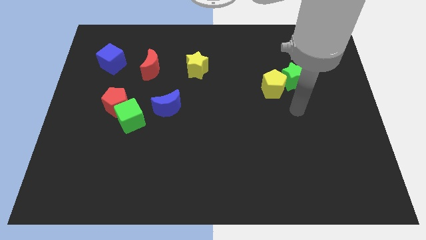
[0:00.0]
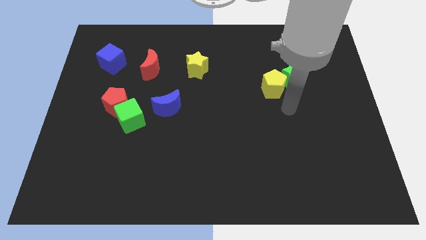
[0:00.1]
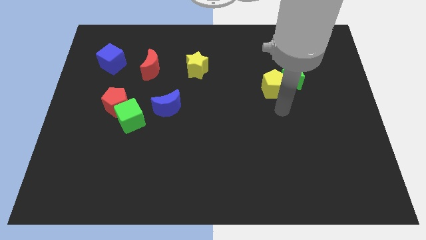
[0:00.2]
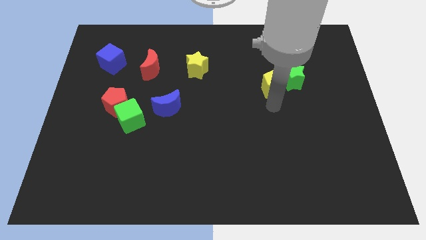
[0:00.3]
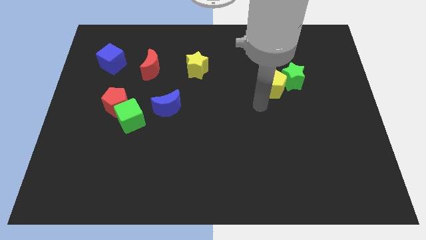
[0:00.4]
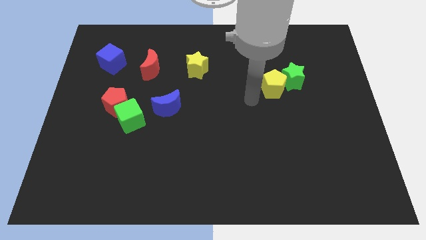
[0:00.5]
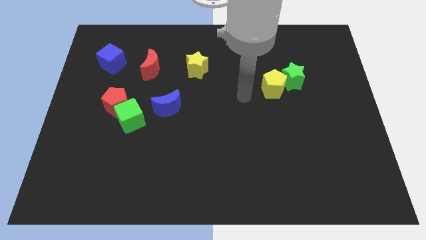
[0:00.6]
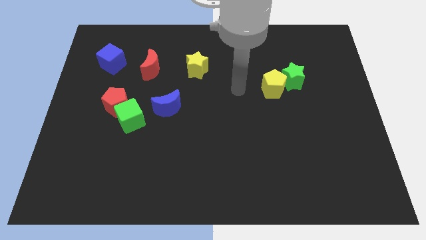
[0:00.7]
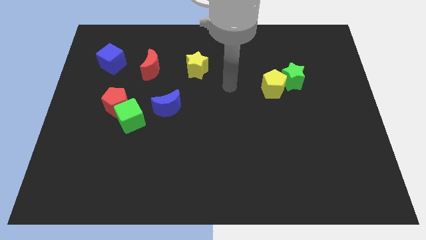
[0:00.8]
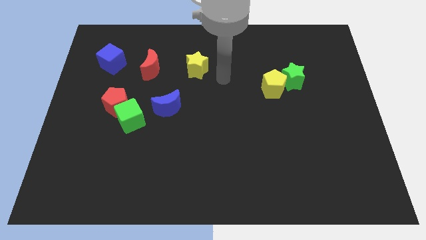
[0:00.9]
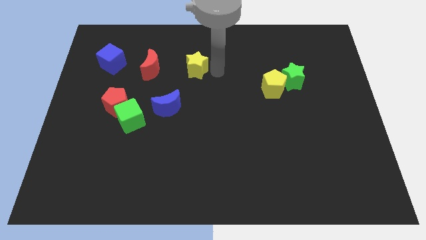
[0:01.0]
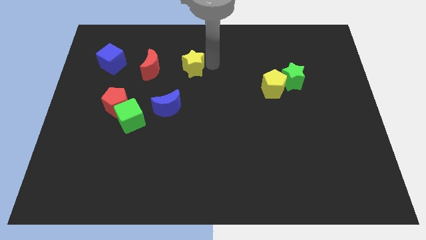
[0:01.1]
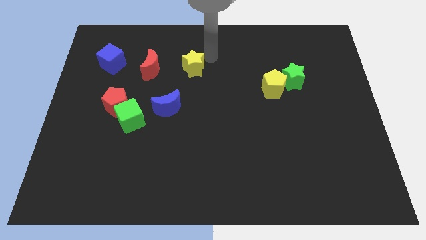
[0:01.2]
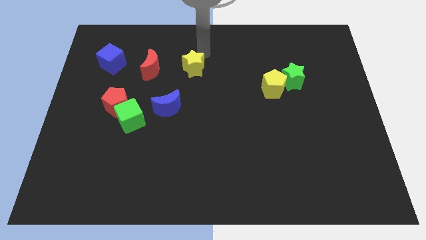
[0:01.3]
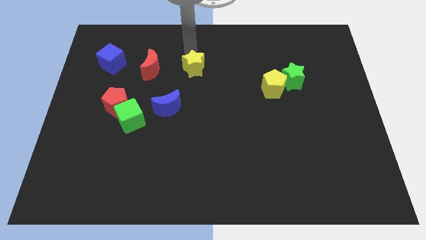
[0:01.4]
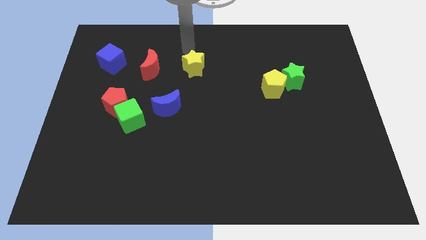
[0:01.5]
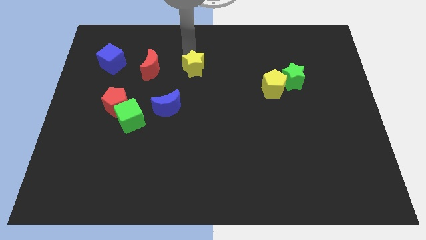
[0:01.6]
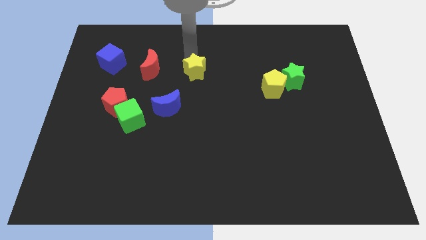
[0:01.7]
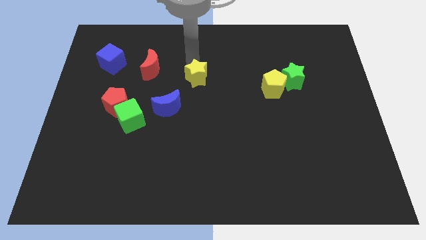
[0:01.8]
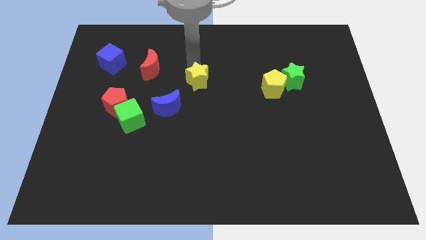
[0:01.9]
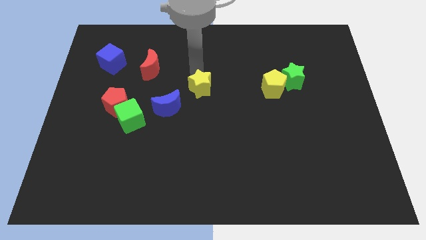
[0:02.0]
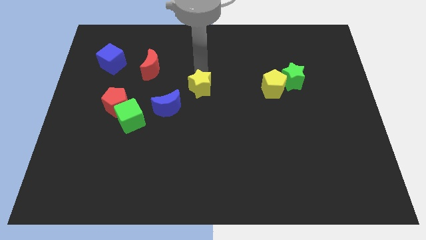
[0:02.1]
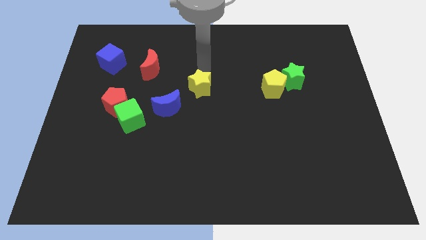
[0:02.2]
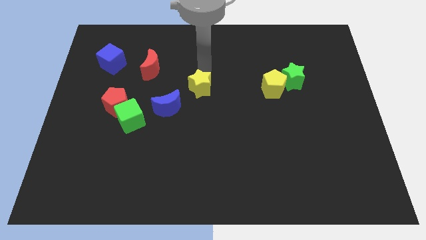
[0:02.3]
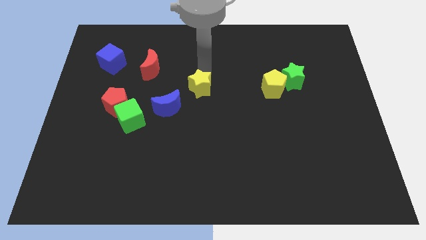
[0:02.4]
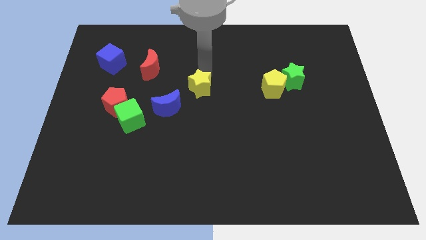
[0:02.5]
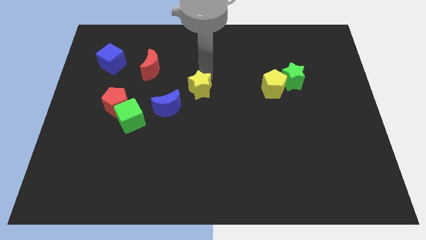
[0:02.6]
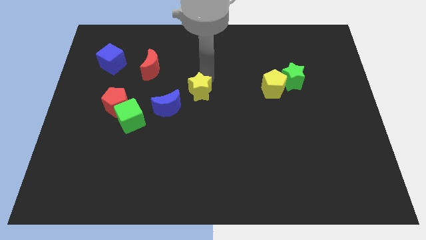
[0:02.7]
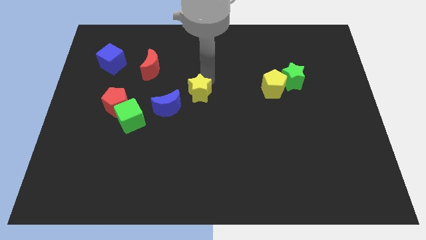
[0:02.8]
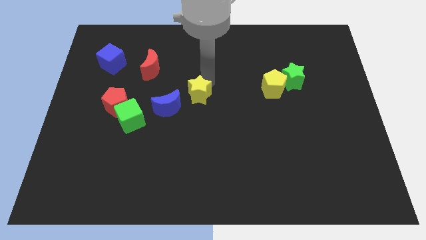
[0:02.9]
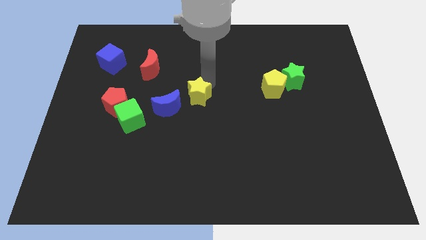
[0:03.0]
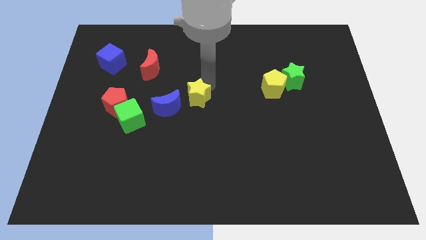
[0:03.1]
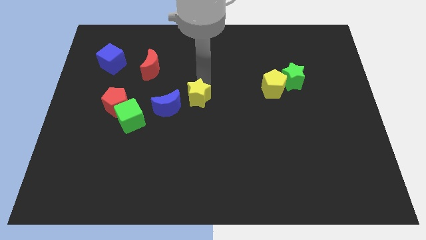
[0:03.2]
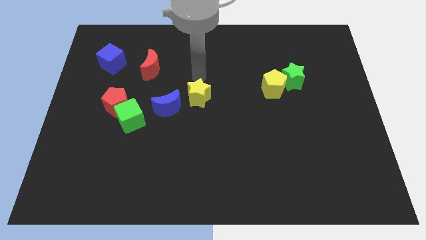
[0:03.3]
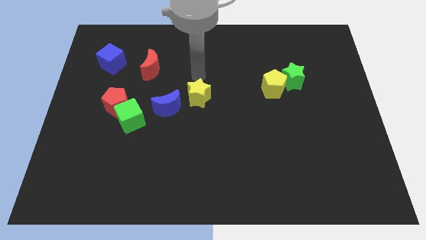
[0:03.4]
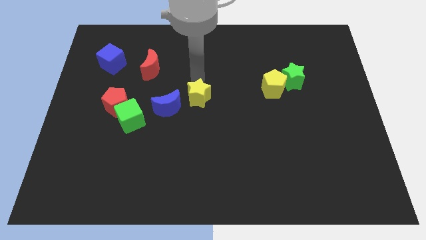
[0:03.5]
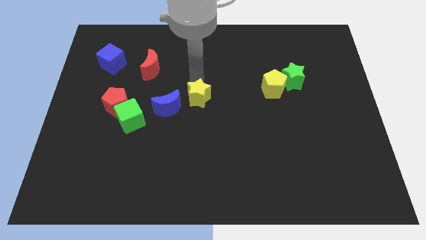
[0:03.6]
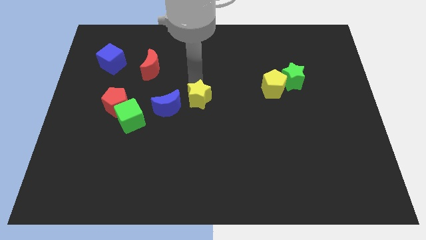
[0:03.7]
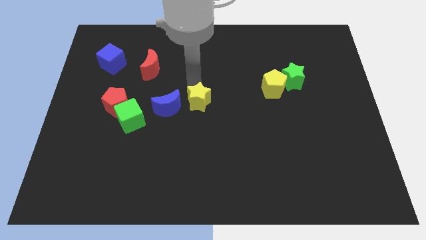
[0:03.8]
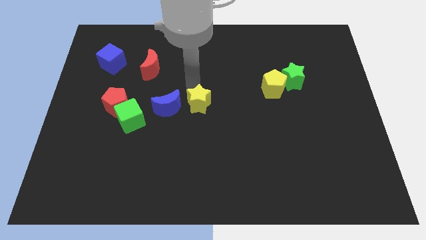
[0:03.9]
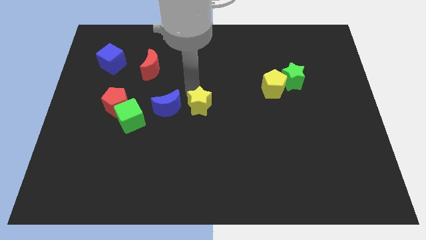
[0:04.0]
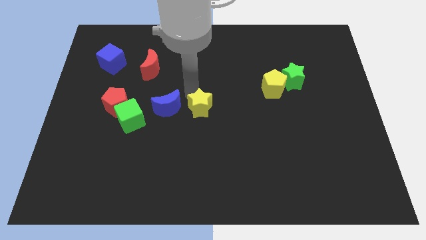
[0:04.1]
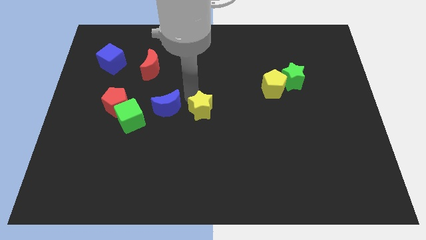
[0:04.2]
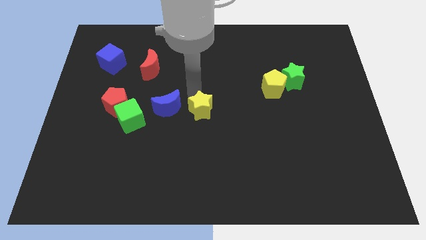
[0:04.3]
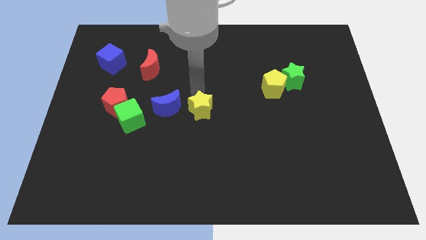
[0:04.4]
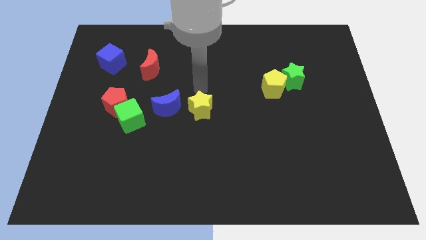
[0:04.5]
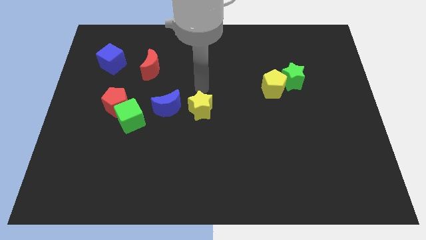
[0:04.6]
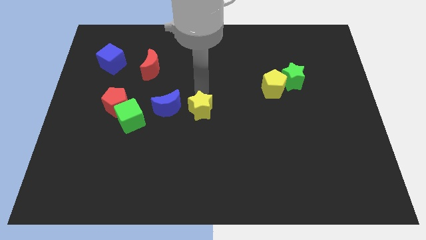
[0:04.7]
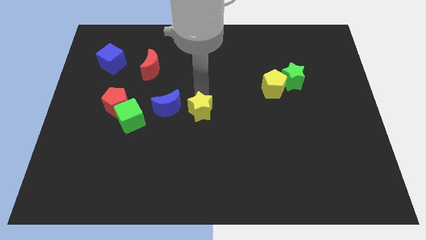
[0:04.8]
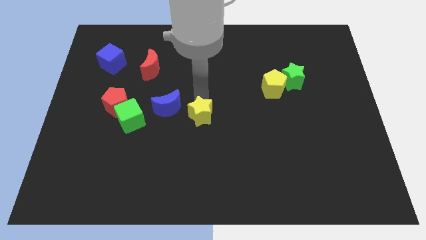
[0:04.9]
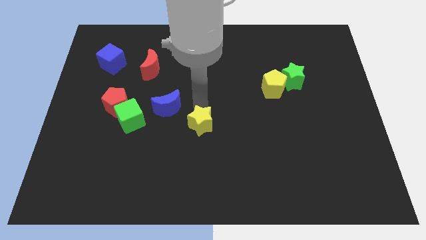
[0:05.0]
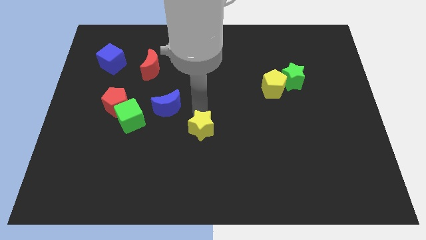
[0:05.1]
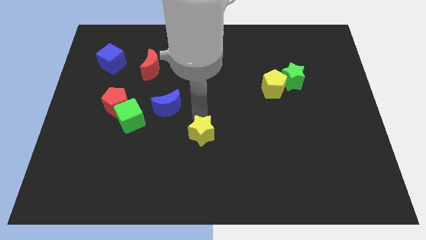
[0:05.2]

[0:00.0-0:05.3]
push the yellow star downwards

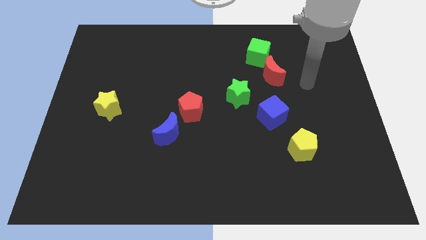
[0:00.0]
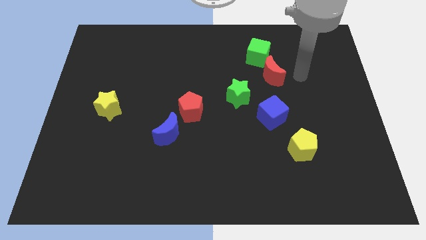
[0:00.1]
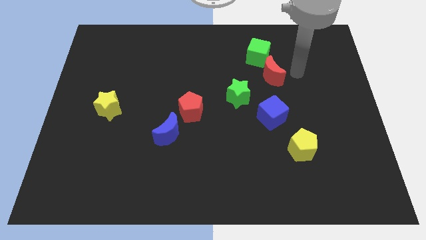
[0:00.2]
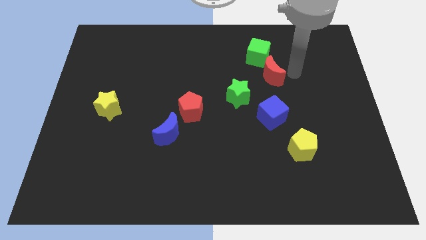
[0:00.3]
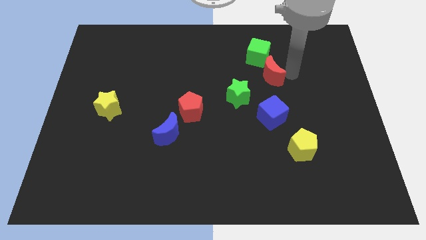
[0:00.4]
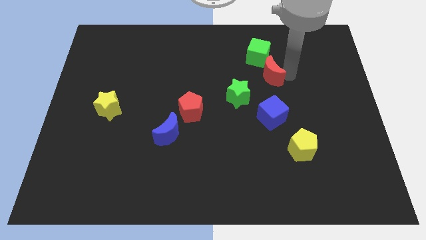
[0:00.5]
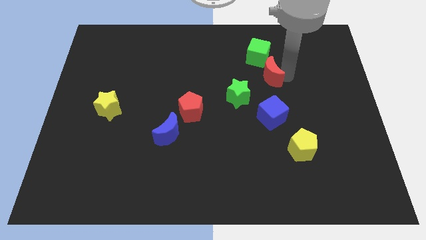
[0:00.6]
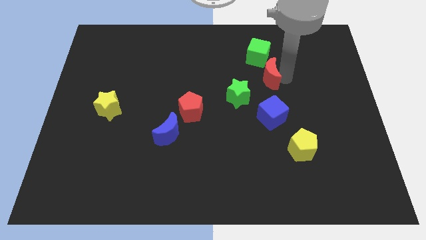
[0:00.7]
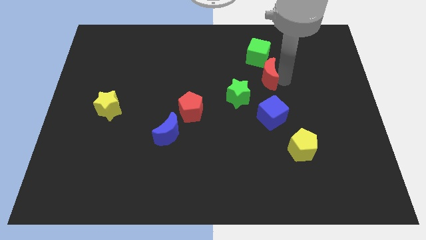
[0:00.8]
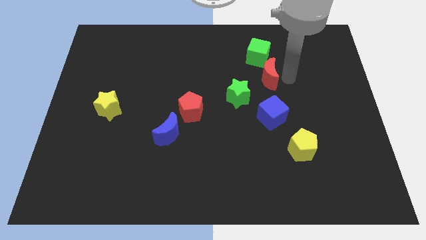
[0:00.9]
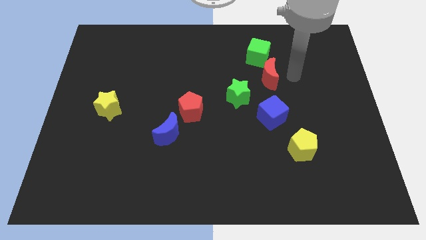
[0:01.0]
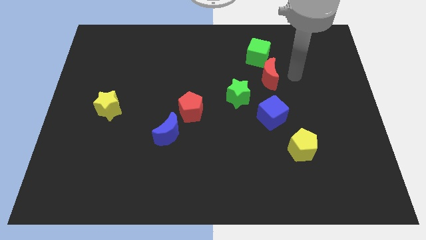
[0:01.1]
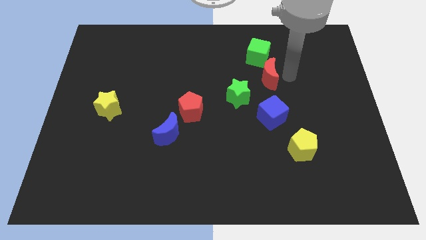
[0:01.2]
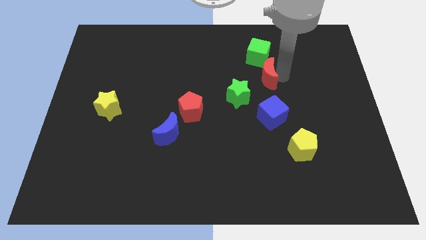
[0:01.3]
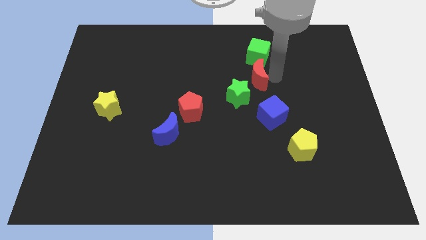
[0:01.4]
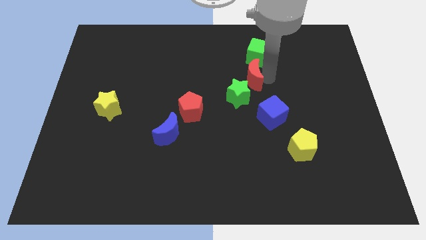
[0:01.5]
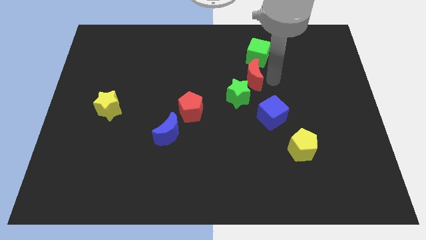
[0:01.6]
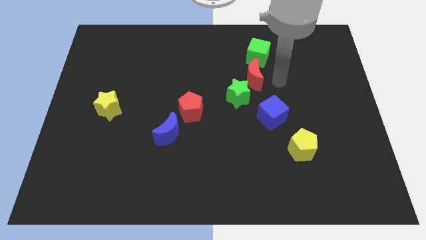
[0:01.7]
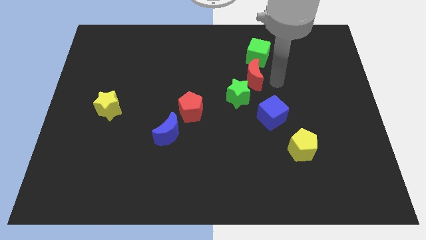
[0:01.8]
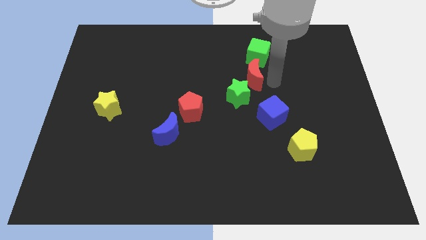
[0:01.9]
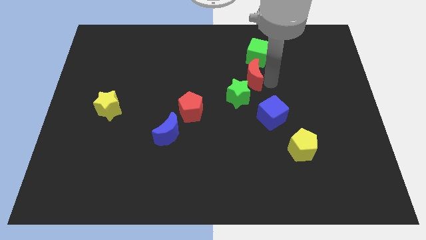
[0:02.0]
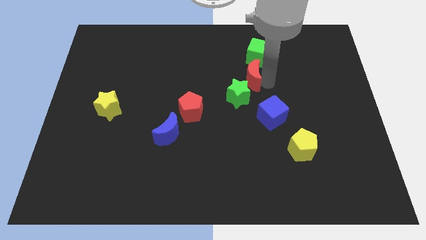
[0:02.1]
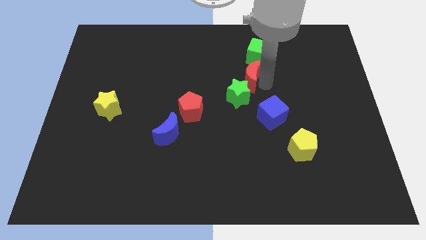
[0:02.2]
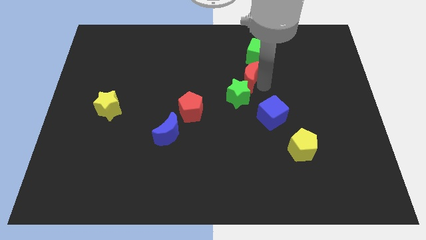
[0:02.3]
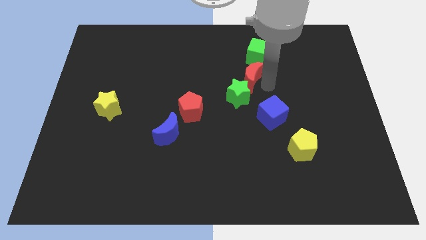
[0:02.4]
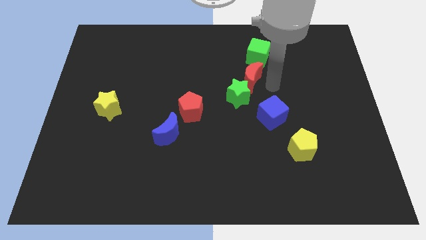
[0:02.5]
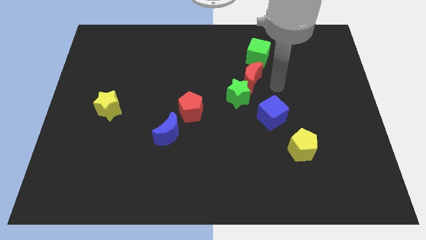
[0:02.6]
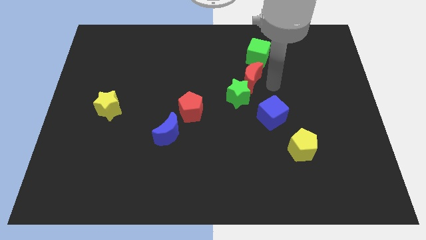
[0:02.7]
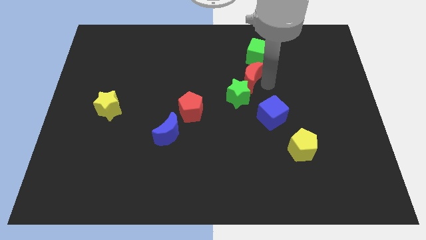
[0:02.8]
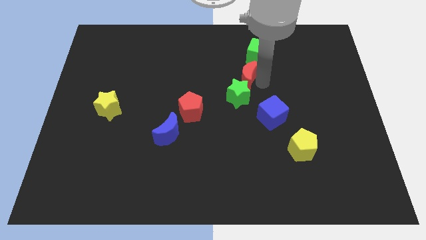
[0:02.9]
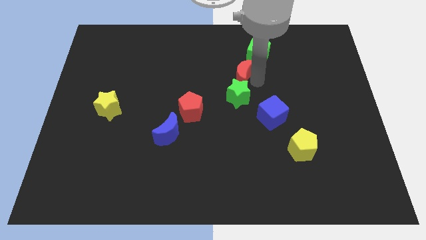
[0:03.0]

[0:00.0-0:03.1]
move the red moon left a little

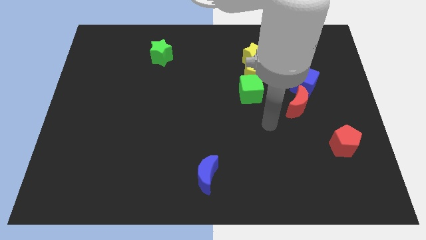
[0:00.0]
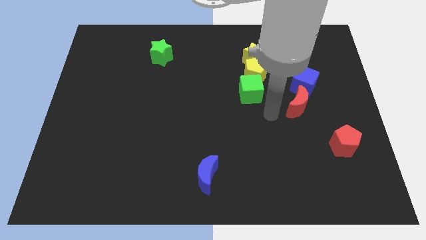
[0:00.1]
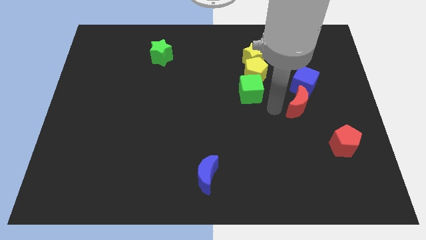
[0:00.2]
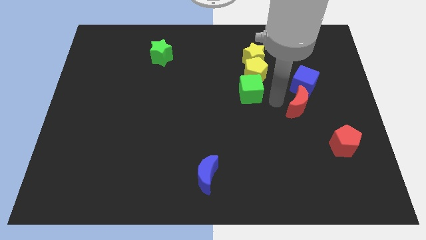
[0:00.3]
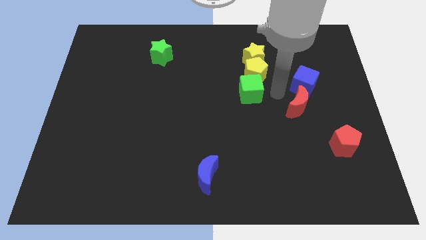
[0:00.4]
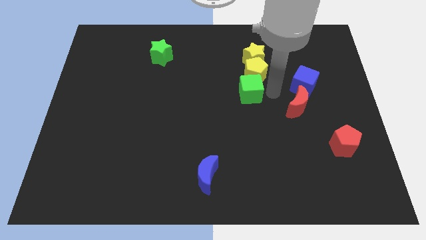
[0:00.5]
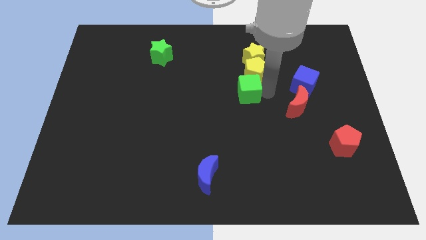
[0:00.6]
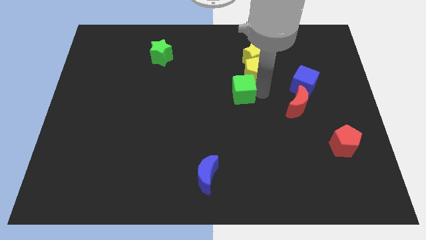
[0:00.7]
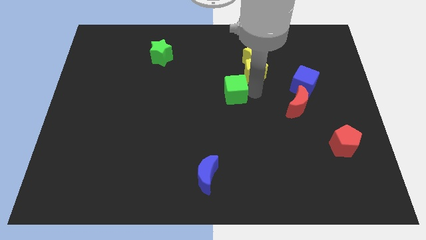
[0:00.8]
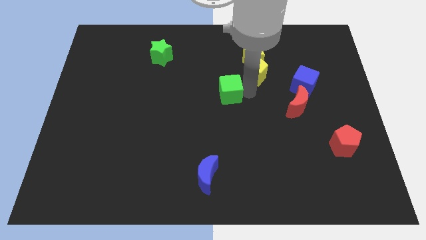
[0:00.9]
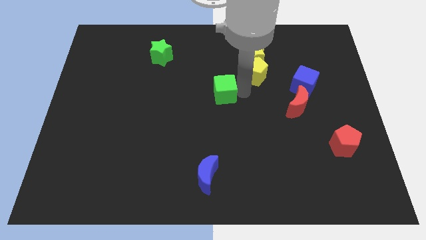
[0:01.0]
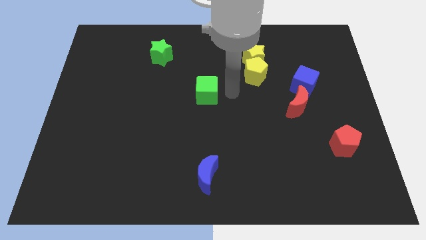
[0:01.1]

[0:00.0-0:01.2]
slightly push the green cube left
